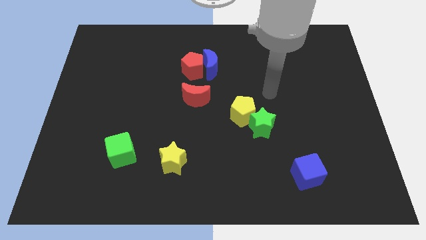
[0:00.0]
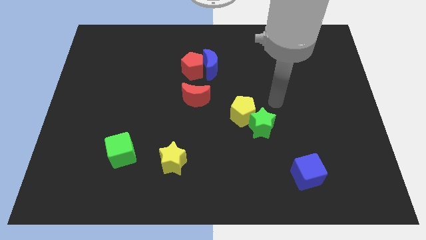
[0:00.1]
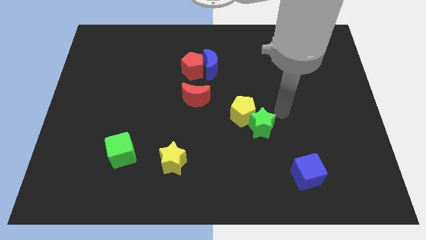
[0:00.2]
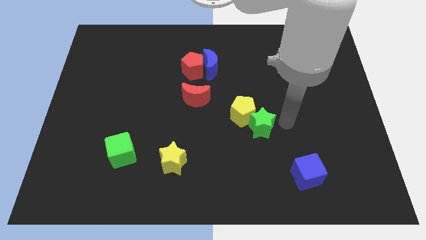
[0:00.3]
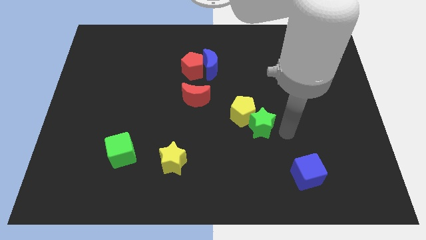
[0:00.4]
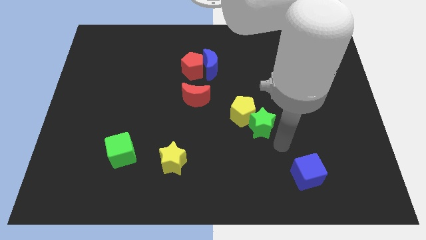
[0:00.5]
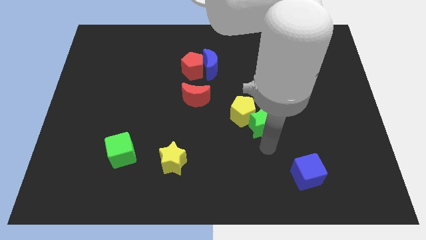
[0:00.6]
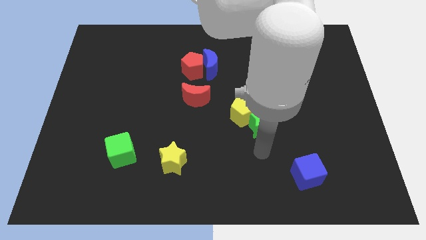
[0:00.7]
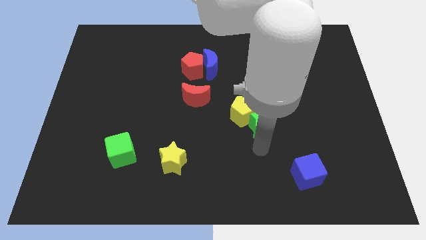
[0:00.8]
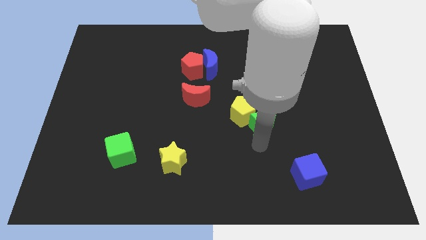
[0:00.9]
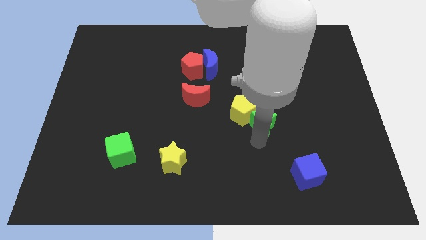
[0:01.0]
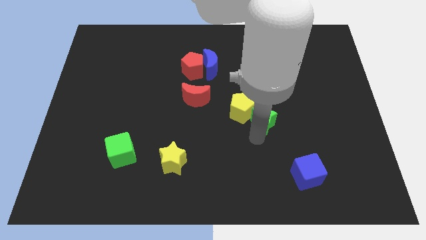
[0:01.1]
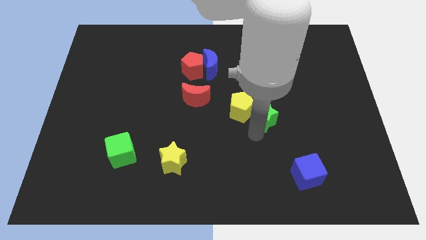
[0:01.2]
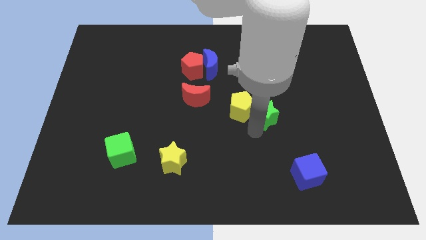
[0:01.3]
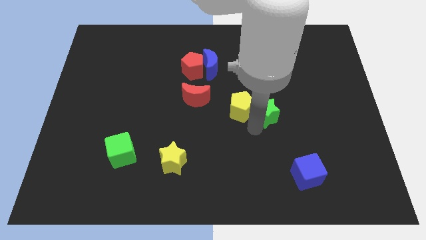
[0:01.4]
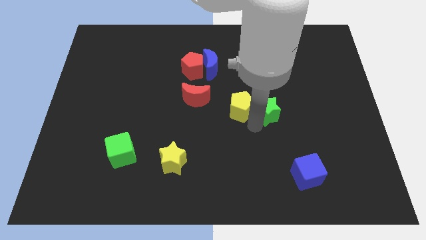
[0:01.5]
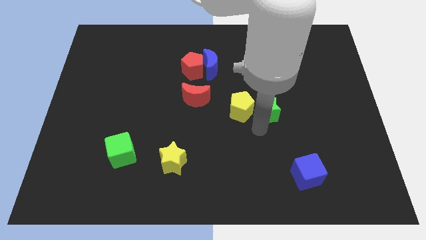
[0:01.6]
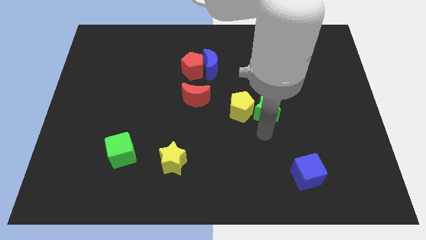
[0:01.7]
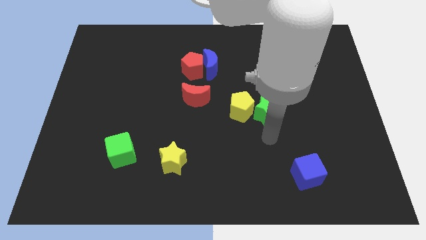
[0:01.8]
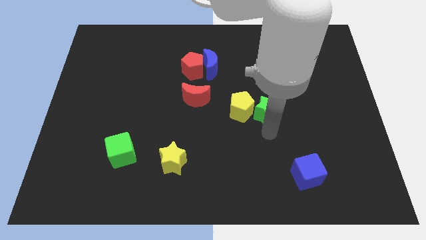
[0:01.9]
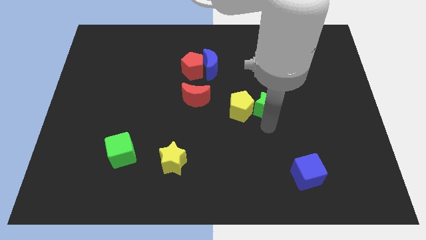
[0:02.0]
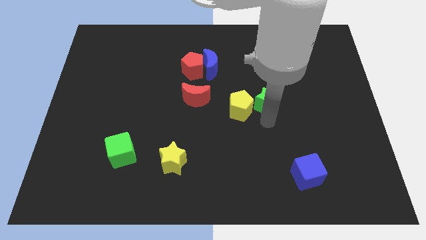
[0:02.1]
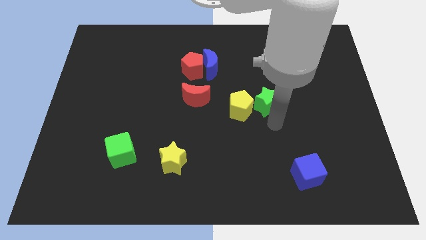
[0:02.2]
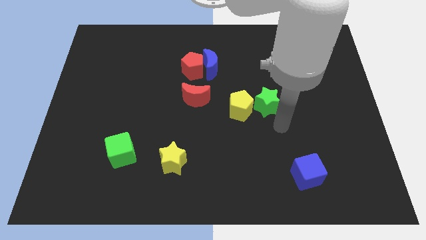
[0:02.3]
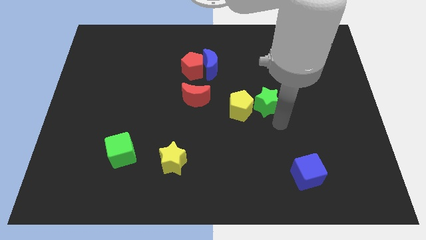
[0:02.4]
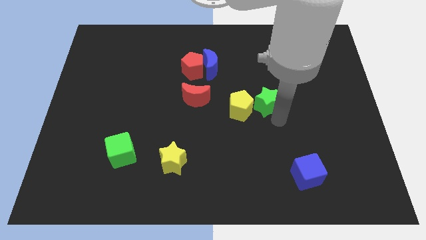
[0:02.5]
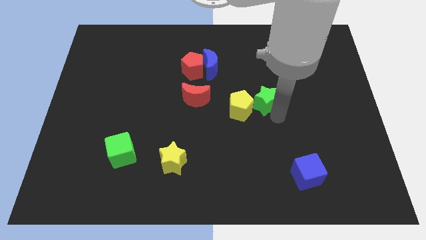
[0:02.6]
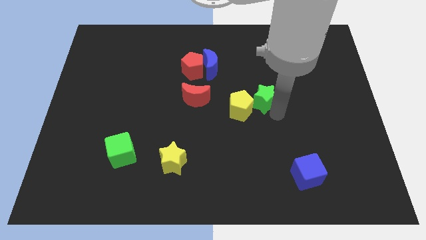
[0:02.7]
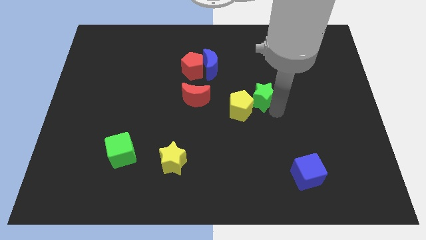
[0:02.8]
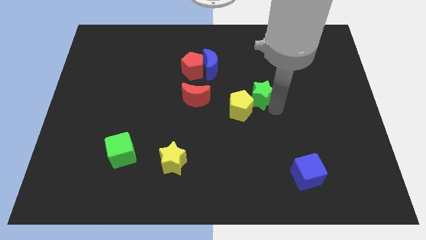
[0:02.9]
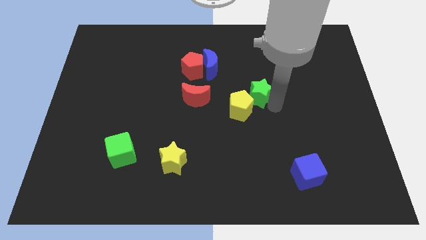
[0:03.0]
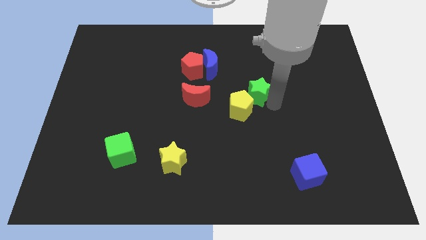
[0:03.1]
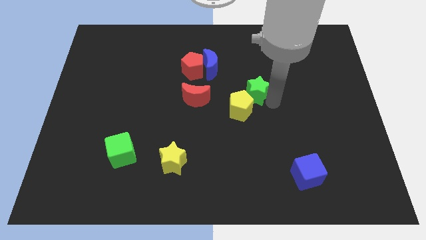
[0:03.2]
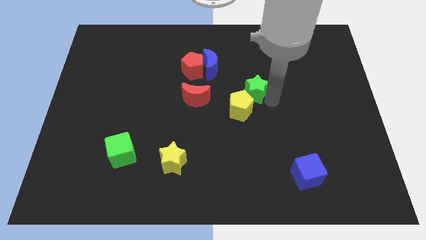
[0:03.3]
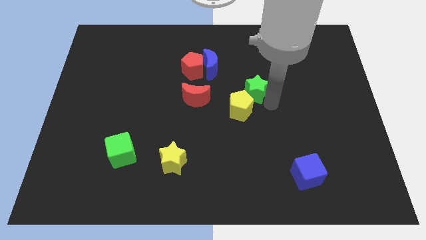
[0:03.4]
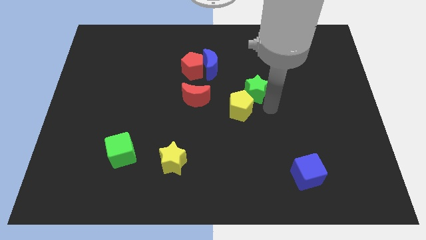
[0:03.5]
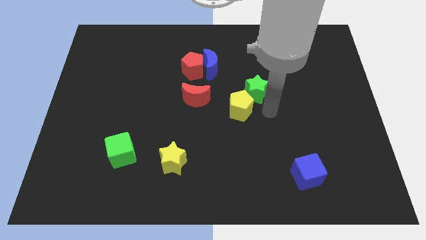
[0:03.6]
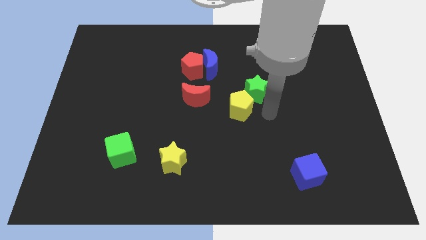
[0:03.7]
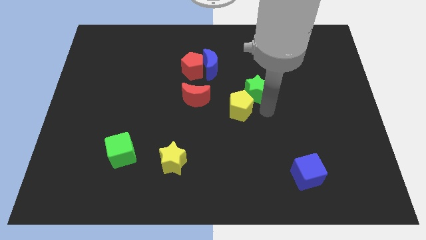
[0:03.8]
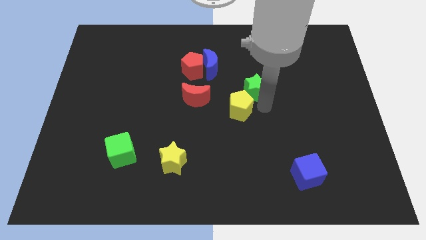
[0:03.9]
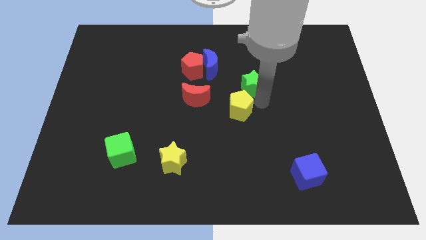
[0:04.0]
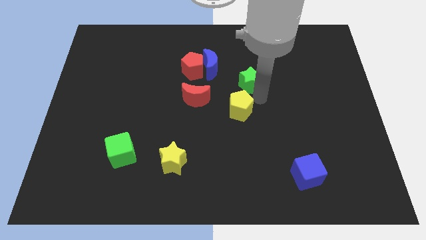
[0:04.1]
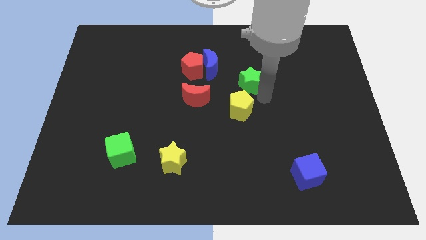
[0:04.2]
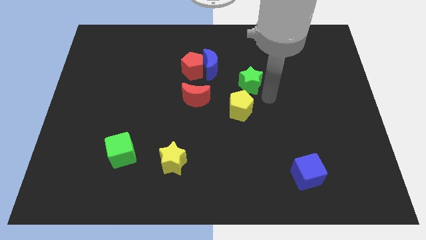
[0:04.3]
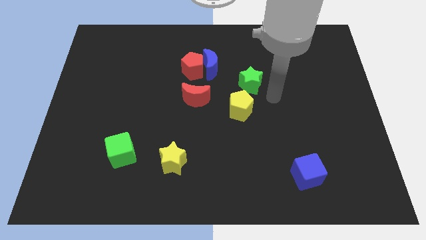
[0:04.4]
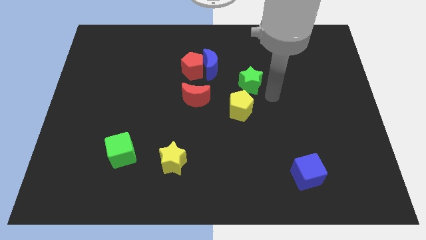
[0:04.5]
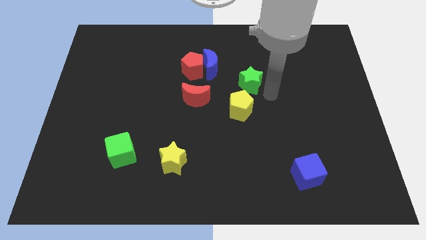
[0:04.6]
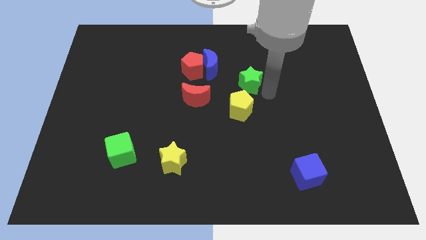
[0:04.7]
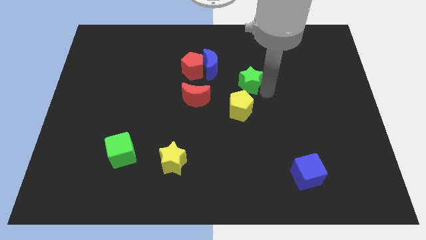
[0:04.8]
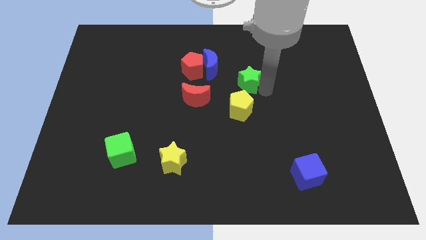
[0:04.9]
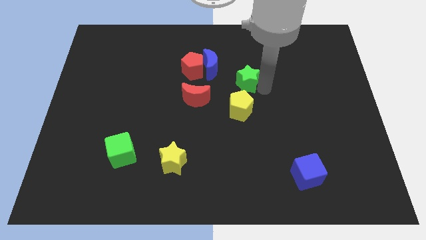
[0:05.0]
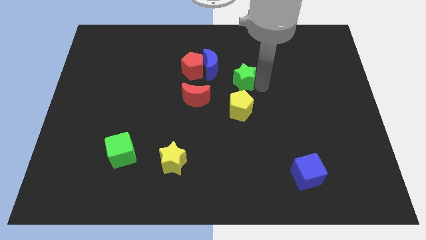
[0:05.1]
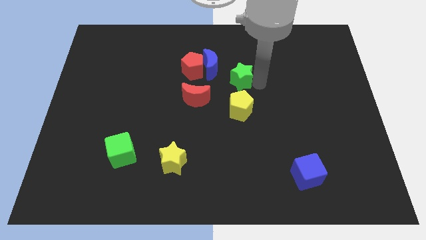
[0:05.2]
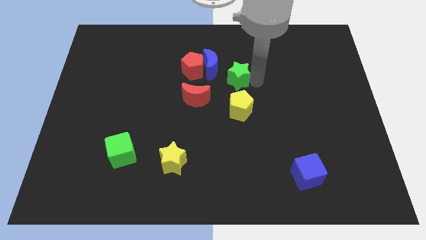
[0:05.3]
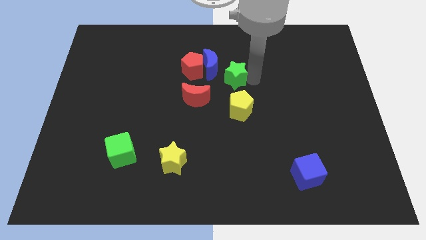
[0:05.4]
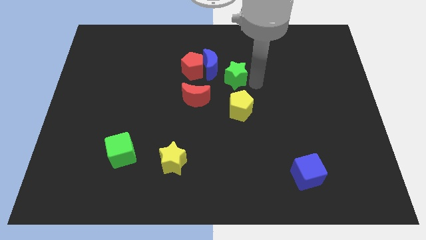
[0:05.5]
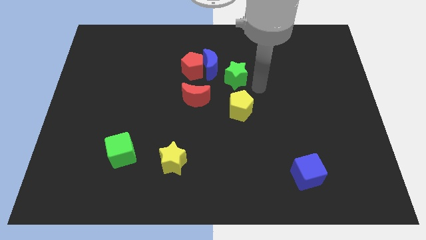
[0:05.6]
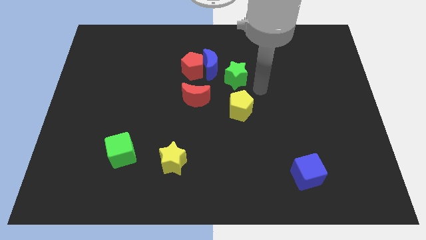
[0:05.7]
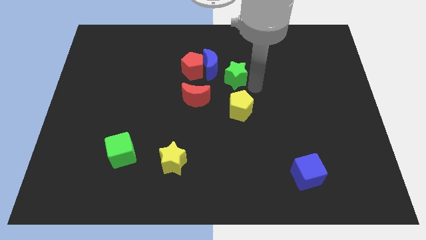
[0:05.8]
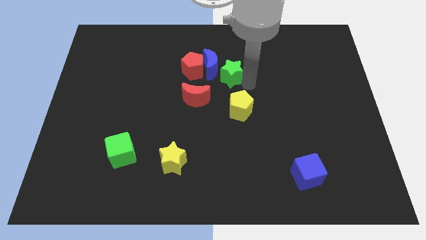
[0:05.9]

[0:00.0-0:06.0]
push the green star towards the blue moon

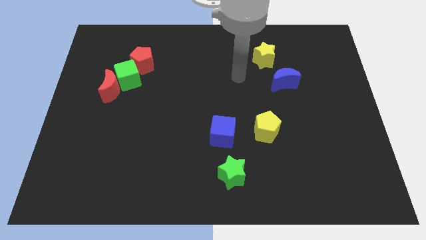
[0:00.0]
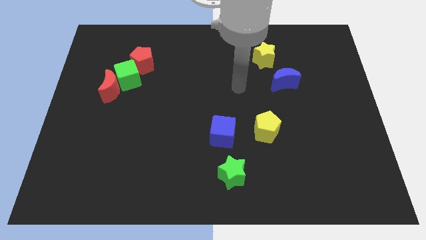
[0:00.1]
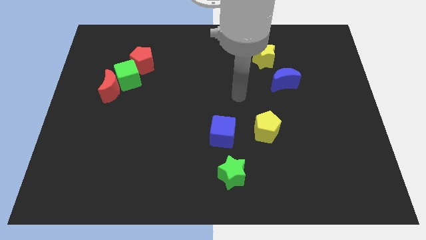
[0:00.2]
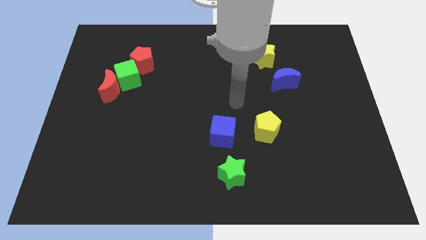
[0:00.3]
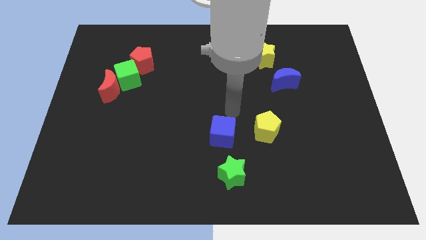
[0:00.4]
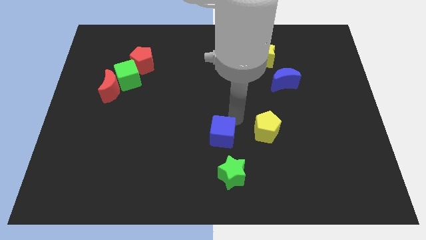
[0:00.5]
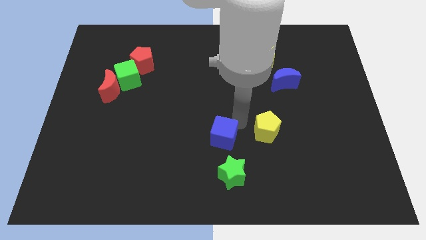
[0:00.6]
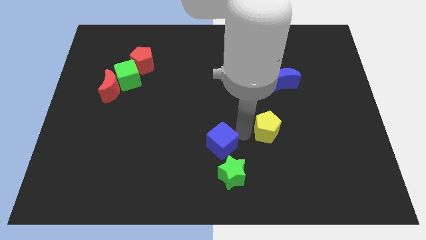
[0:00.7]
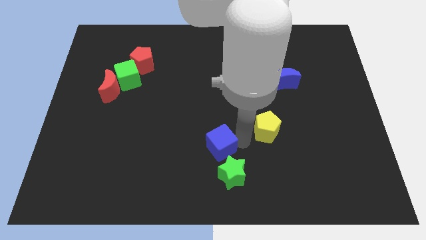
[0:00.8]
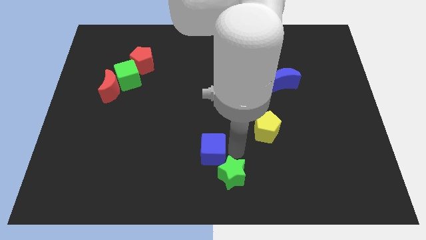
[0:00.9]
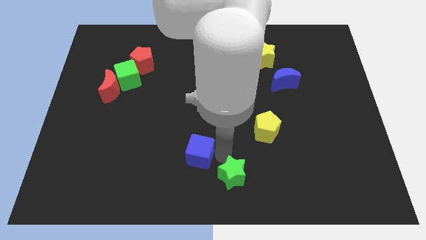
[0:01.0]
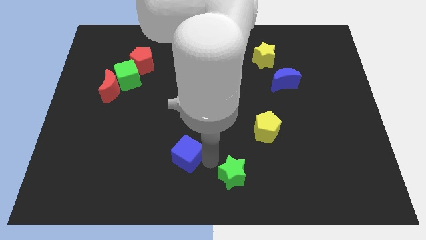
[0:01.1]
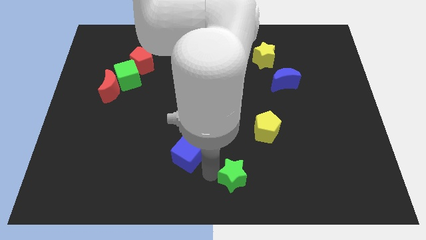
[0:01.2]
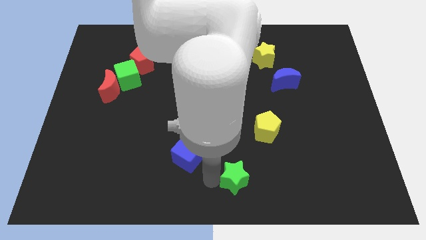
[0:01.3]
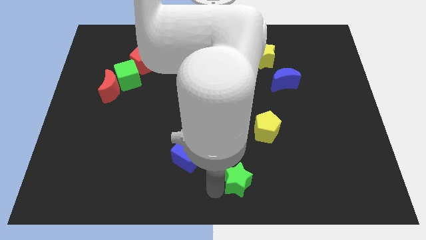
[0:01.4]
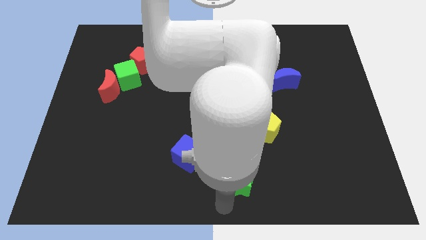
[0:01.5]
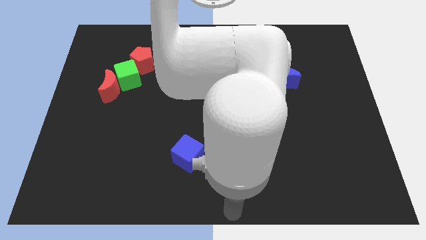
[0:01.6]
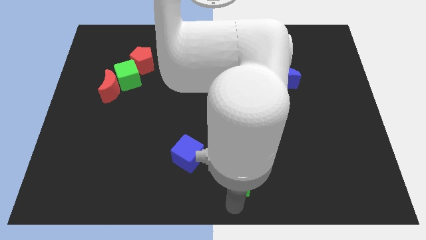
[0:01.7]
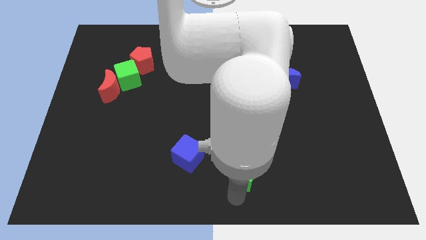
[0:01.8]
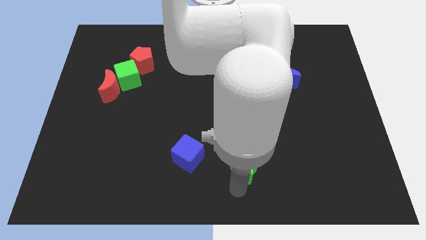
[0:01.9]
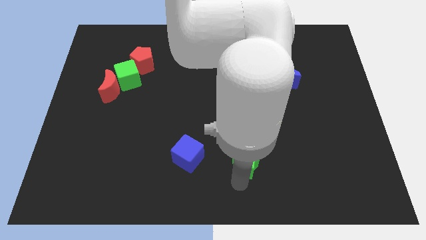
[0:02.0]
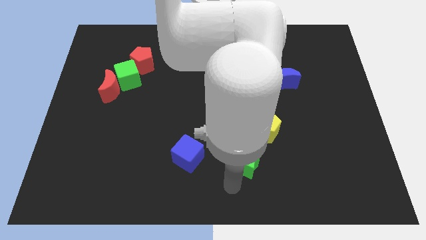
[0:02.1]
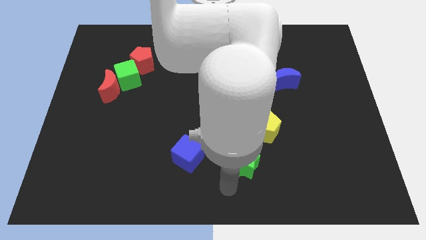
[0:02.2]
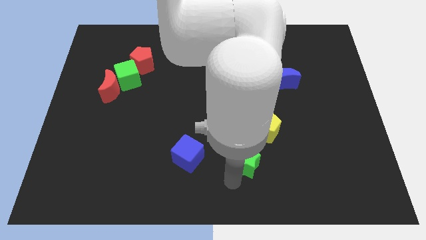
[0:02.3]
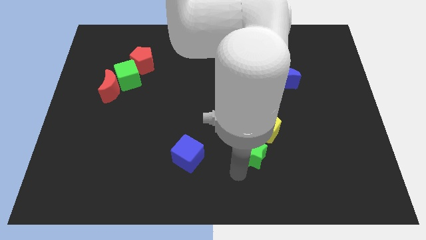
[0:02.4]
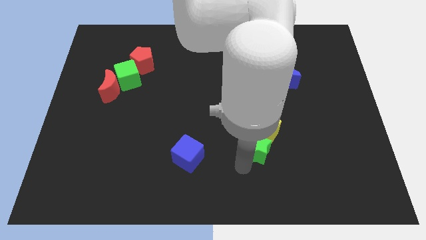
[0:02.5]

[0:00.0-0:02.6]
slide the green star towards the yellow pentagon
